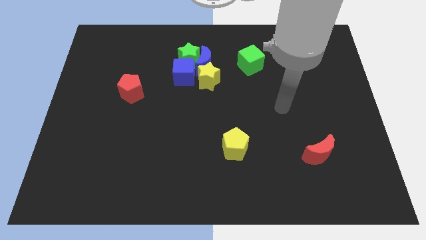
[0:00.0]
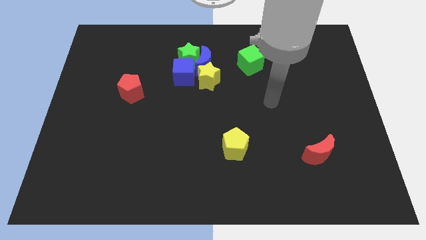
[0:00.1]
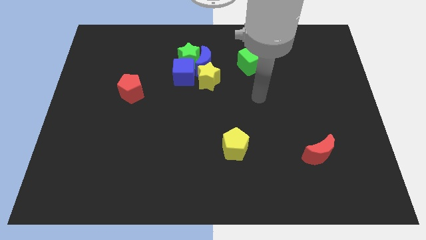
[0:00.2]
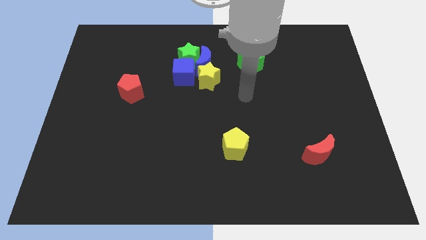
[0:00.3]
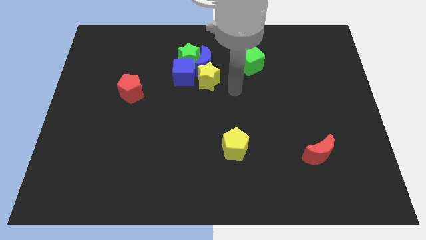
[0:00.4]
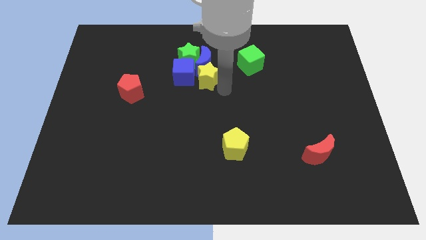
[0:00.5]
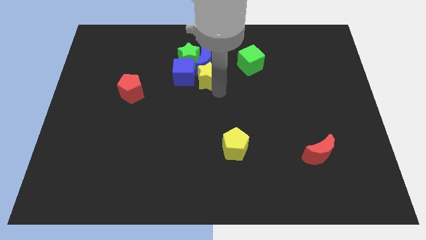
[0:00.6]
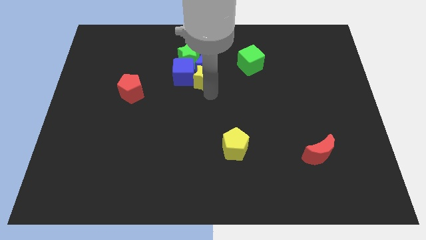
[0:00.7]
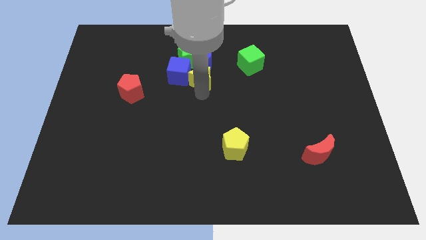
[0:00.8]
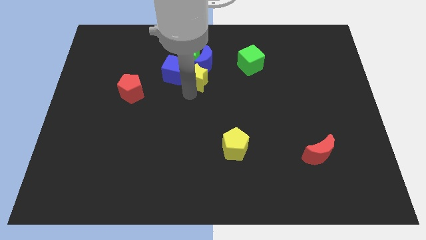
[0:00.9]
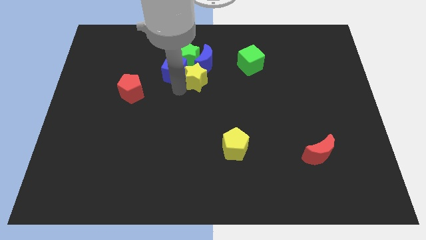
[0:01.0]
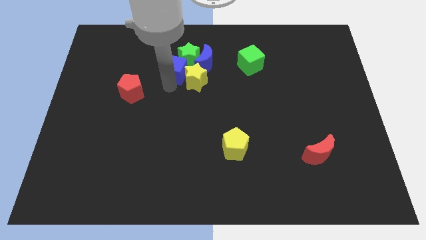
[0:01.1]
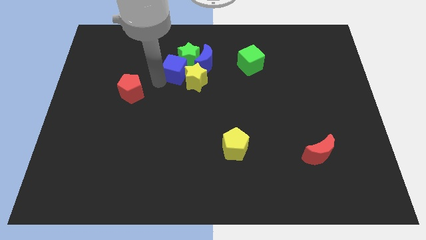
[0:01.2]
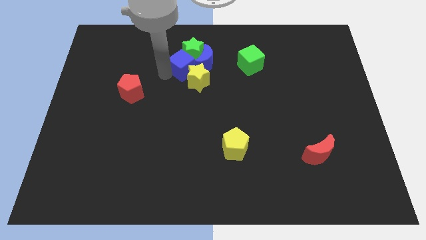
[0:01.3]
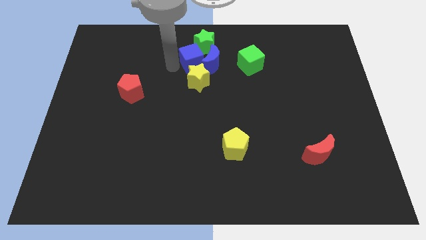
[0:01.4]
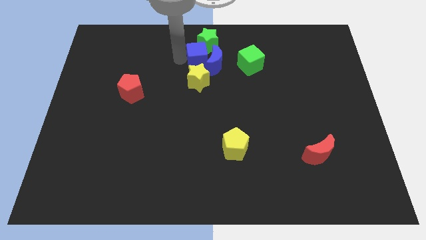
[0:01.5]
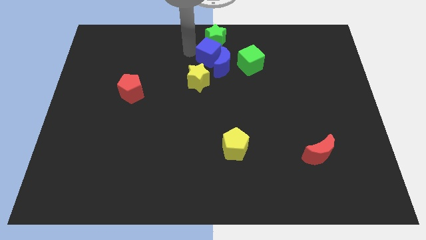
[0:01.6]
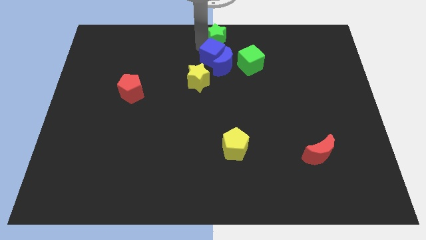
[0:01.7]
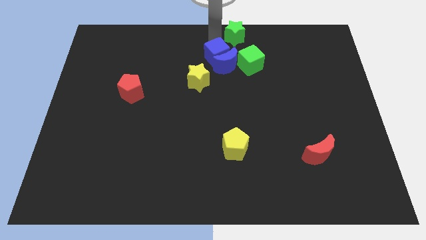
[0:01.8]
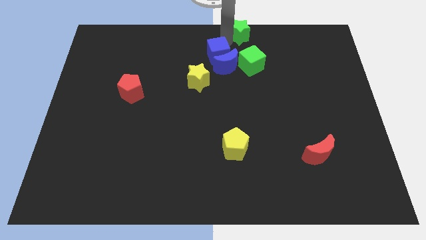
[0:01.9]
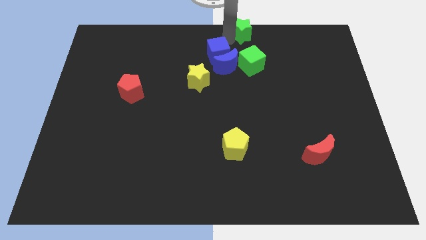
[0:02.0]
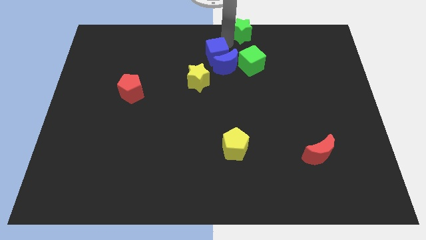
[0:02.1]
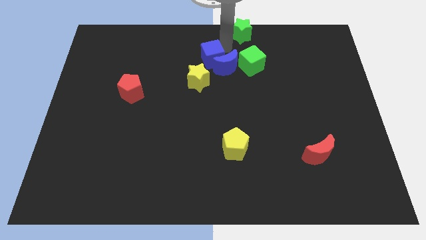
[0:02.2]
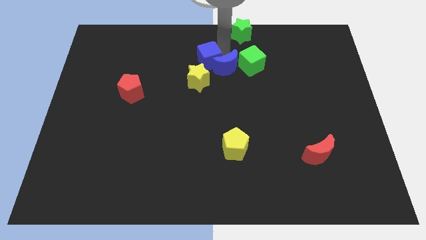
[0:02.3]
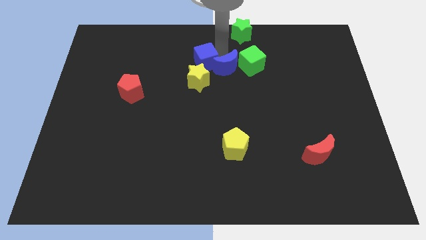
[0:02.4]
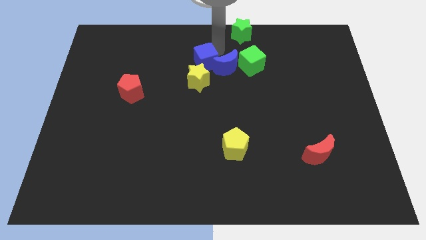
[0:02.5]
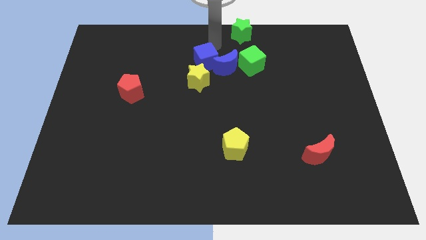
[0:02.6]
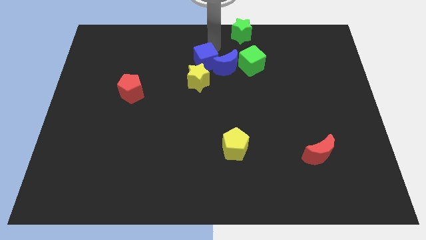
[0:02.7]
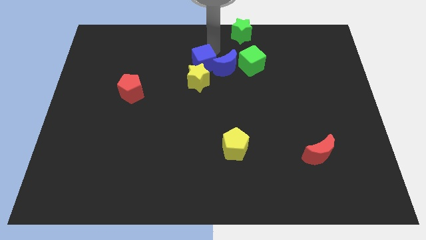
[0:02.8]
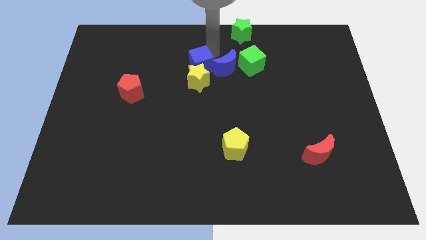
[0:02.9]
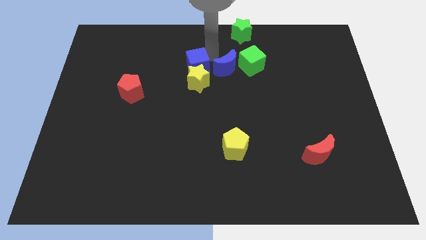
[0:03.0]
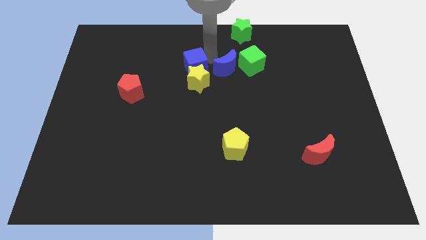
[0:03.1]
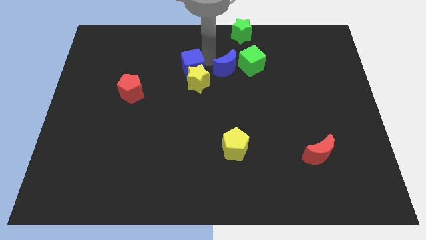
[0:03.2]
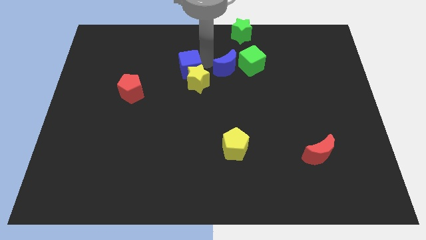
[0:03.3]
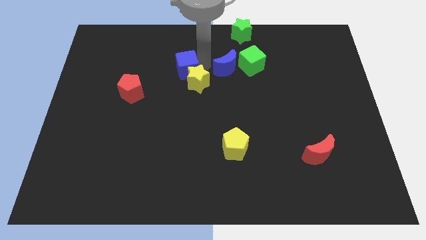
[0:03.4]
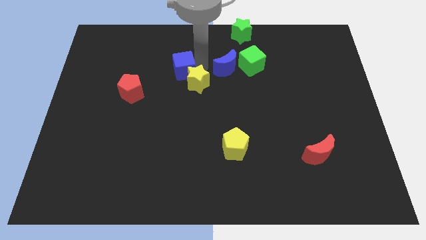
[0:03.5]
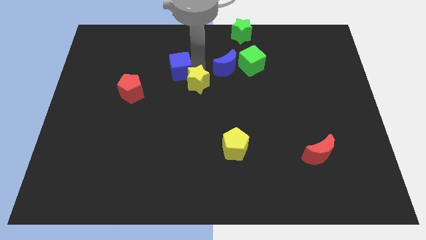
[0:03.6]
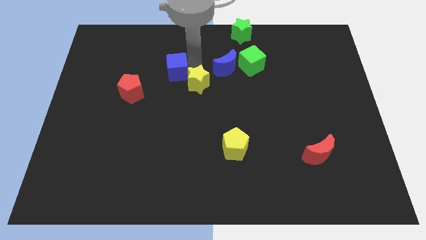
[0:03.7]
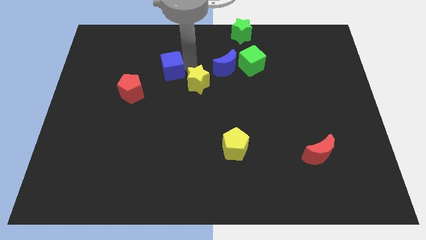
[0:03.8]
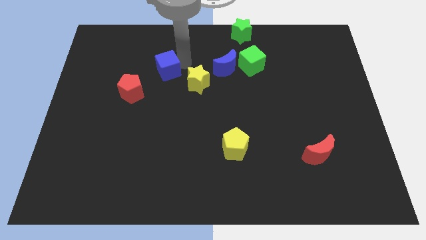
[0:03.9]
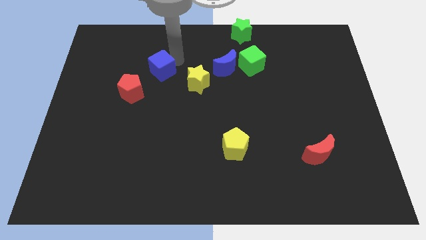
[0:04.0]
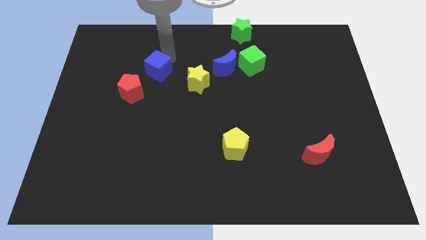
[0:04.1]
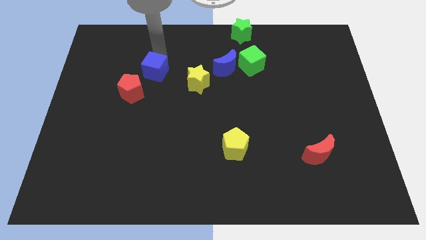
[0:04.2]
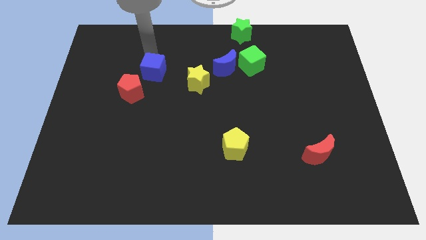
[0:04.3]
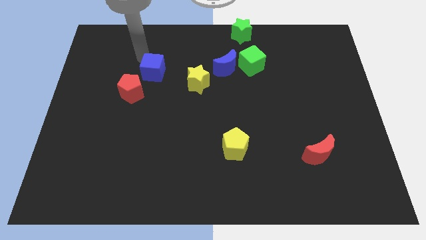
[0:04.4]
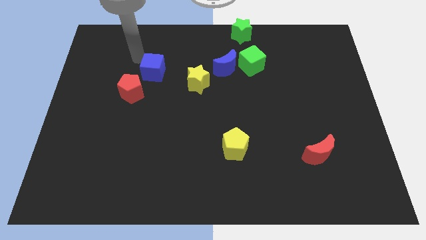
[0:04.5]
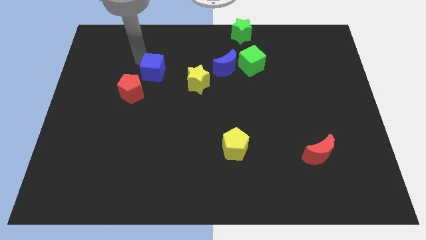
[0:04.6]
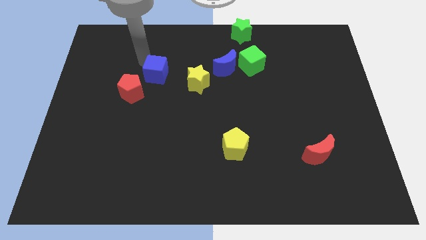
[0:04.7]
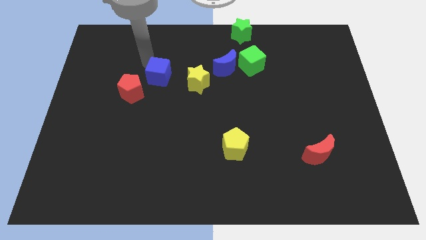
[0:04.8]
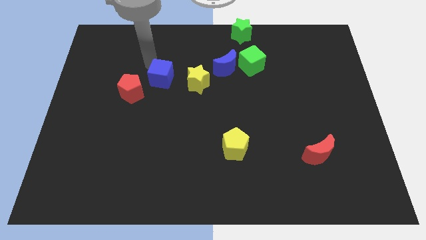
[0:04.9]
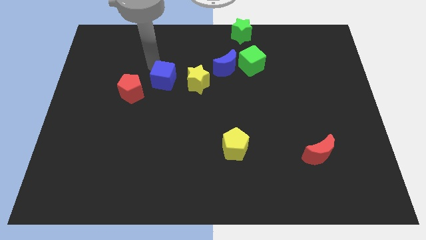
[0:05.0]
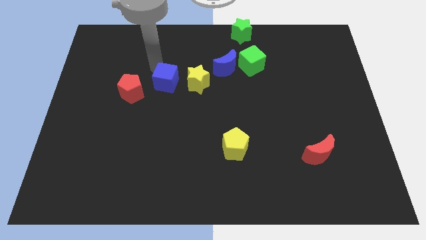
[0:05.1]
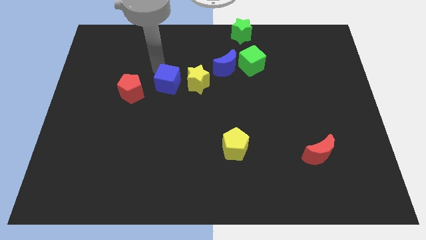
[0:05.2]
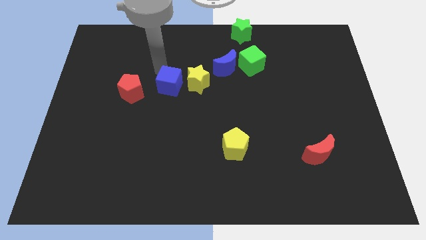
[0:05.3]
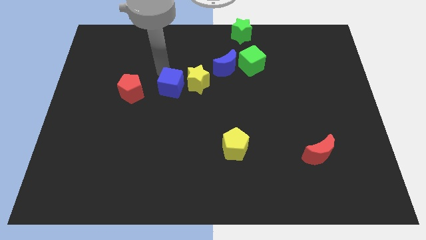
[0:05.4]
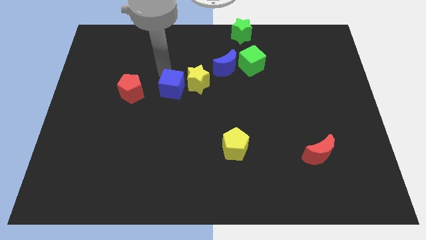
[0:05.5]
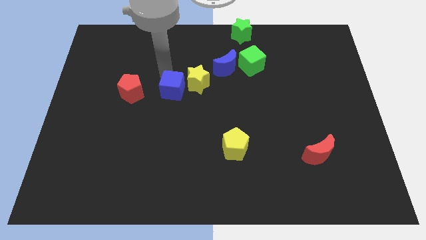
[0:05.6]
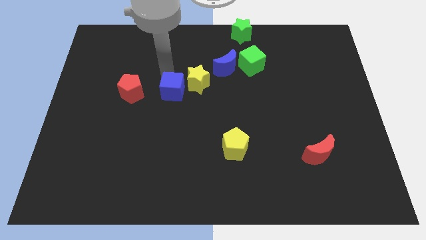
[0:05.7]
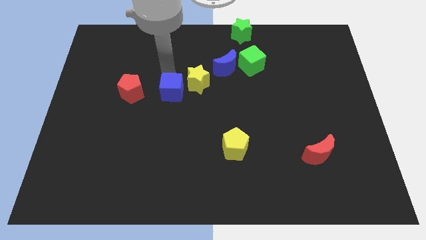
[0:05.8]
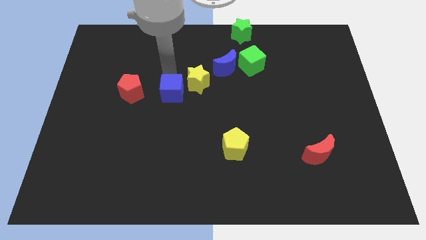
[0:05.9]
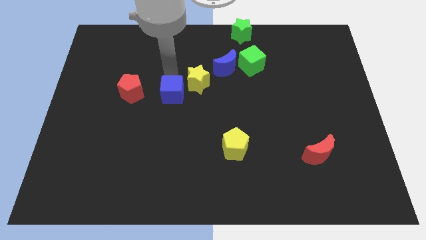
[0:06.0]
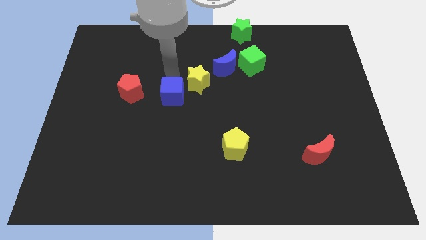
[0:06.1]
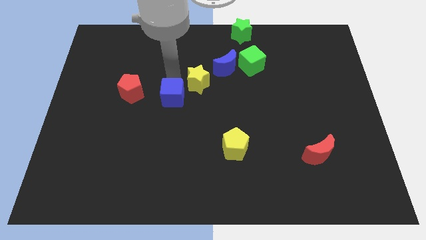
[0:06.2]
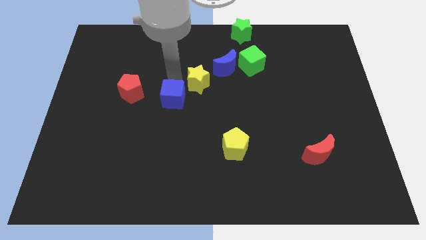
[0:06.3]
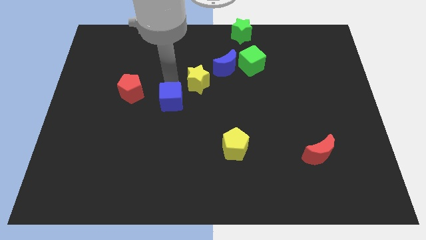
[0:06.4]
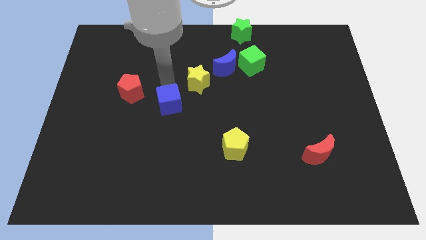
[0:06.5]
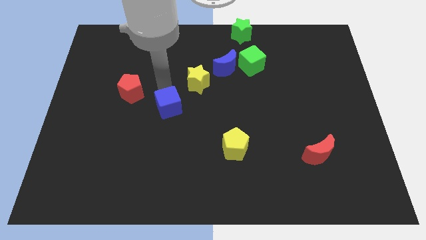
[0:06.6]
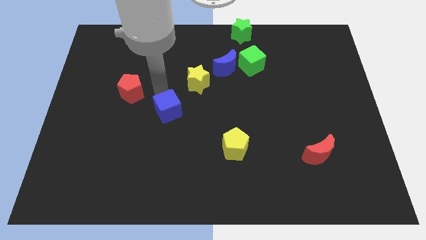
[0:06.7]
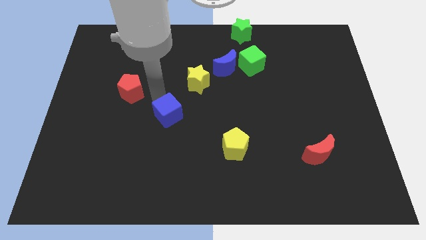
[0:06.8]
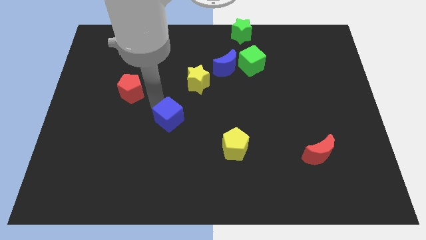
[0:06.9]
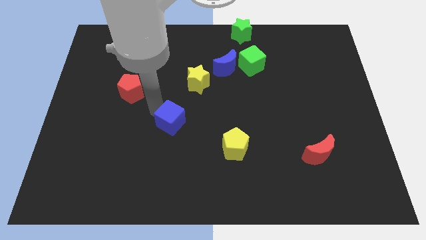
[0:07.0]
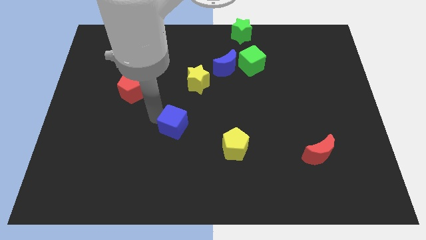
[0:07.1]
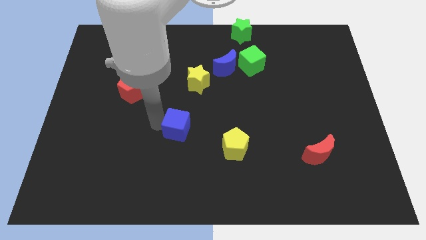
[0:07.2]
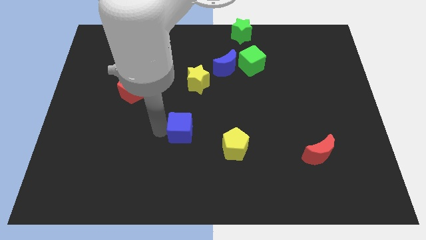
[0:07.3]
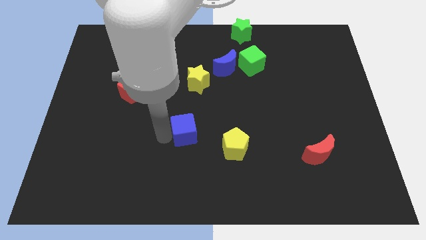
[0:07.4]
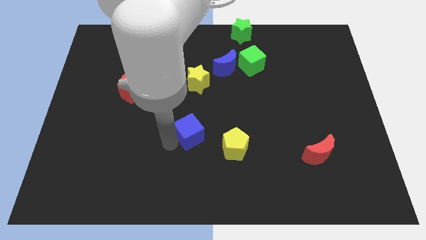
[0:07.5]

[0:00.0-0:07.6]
move the blue cube a bit down and to the right diagonally

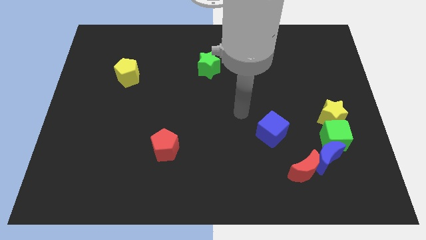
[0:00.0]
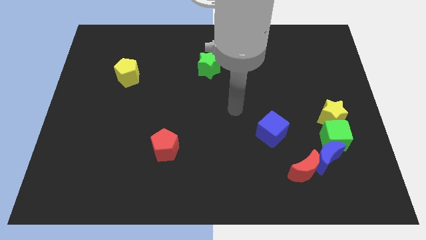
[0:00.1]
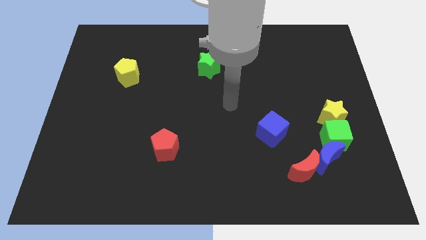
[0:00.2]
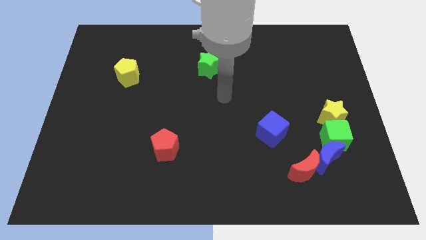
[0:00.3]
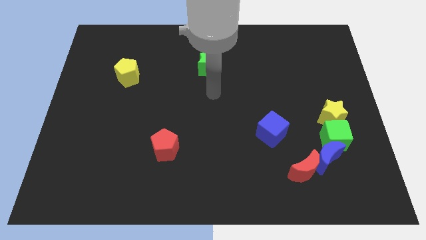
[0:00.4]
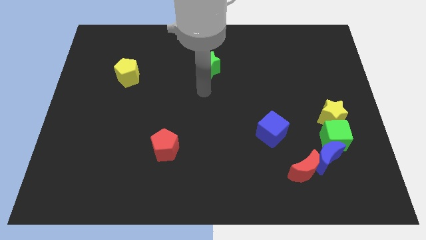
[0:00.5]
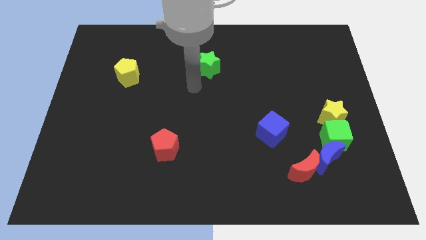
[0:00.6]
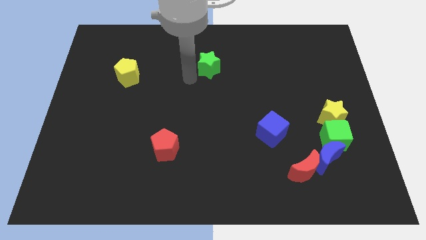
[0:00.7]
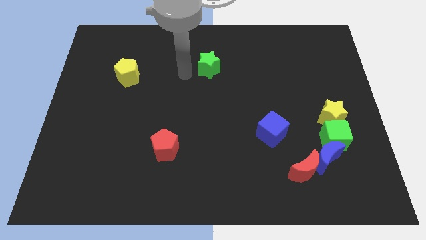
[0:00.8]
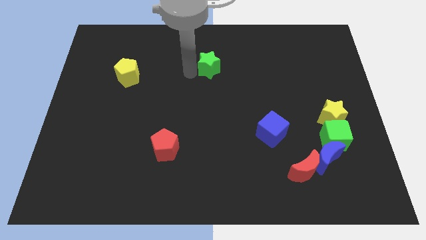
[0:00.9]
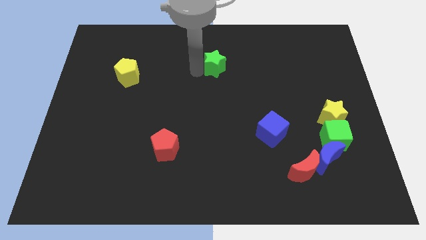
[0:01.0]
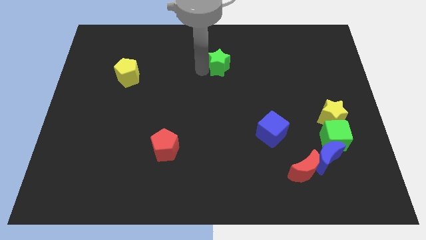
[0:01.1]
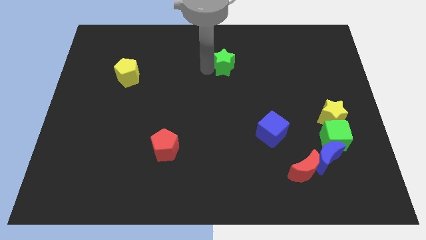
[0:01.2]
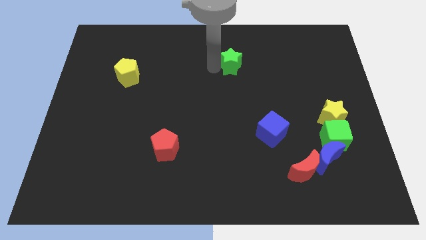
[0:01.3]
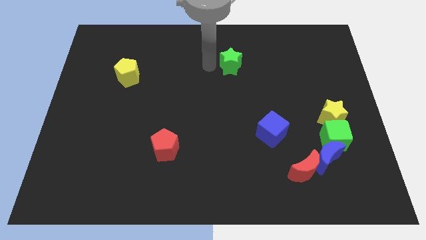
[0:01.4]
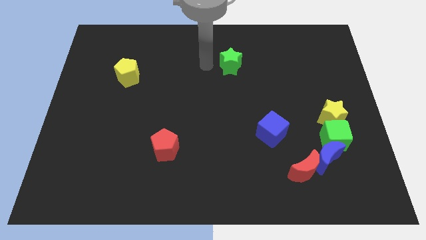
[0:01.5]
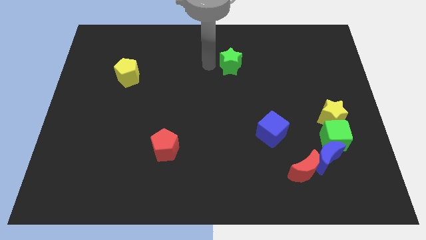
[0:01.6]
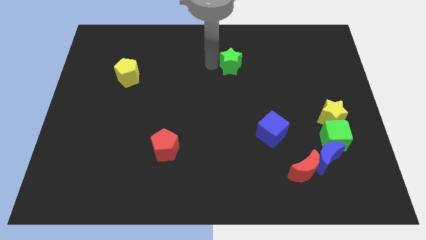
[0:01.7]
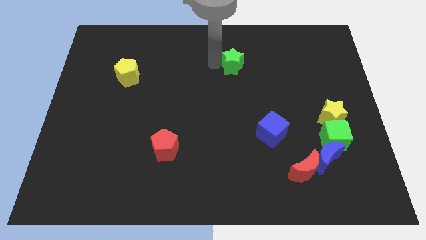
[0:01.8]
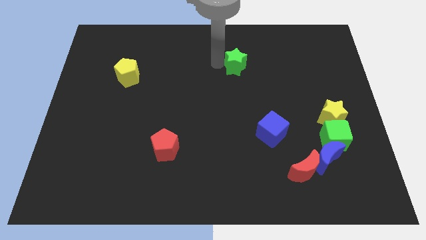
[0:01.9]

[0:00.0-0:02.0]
slightly move the green star to the right
